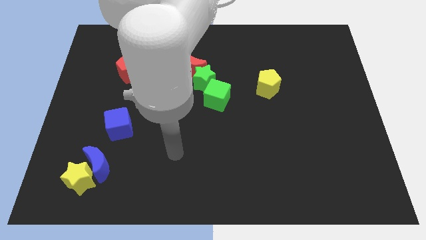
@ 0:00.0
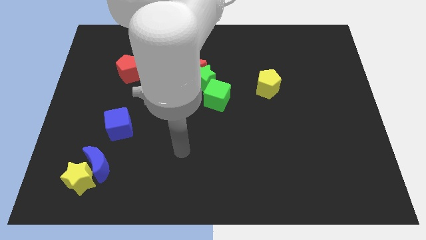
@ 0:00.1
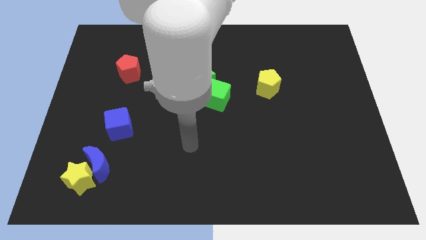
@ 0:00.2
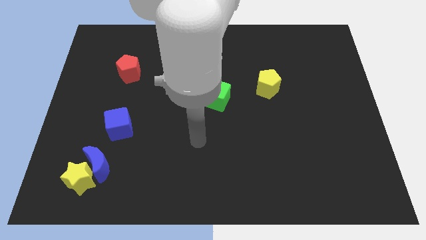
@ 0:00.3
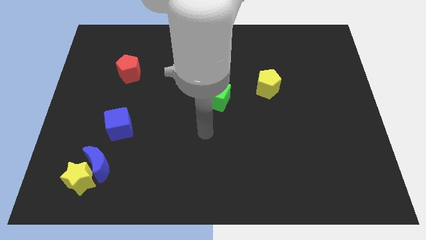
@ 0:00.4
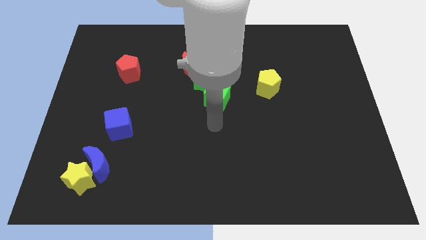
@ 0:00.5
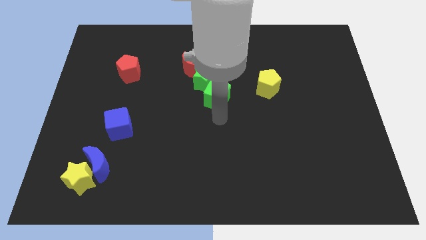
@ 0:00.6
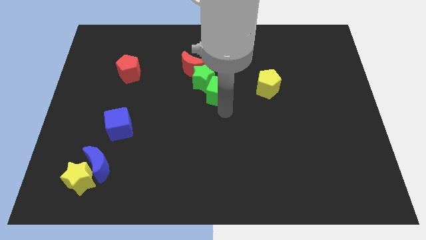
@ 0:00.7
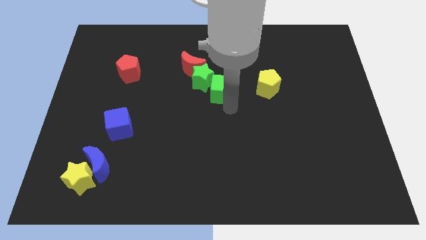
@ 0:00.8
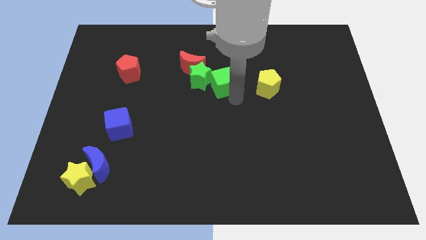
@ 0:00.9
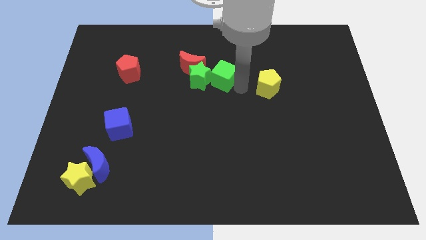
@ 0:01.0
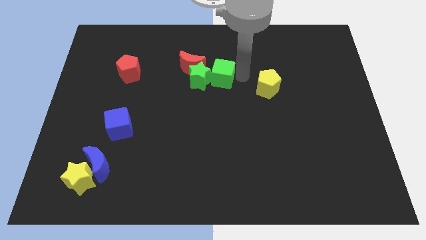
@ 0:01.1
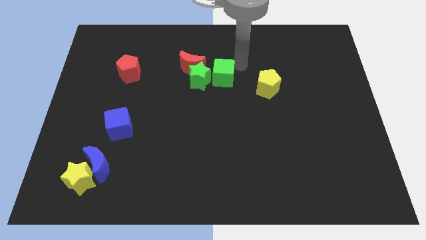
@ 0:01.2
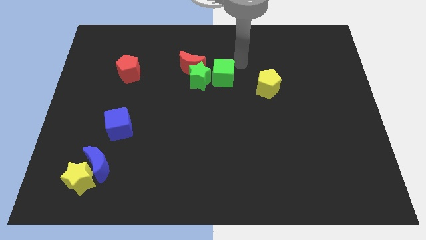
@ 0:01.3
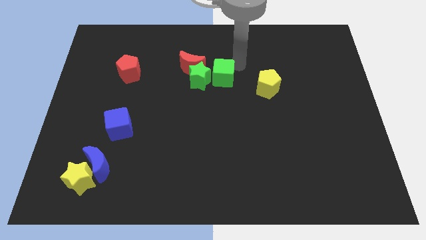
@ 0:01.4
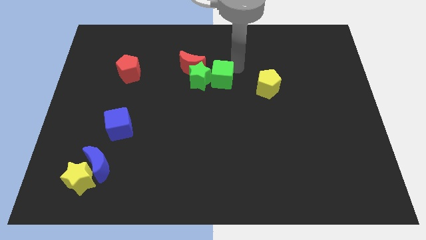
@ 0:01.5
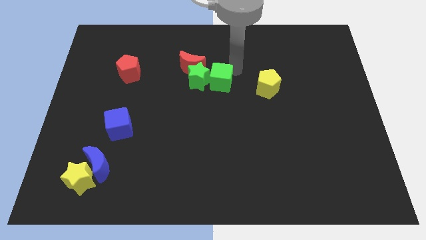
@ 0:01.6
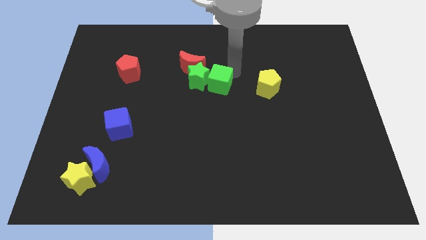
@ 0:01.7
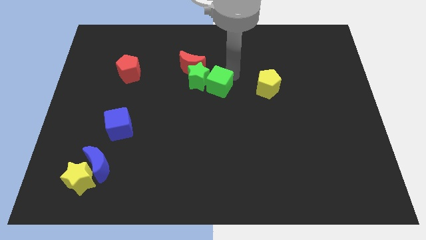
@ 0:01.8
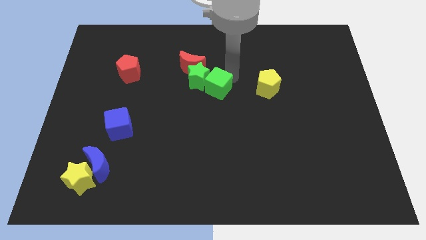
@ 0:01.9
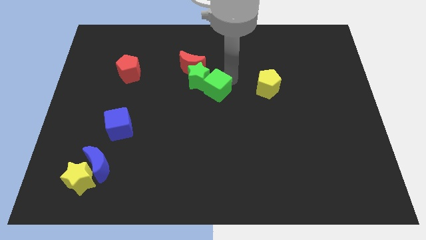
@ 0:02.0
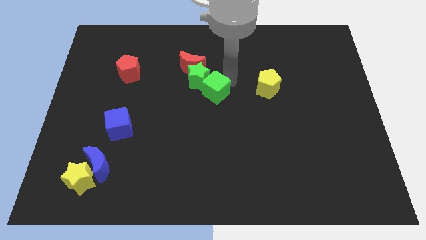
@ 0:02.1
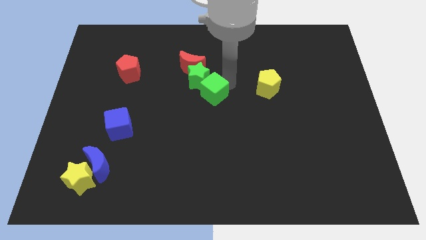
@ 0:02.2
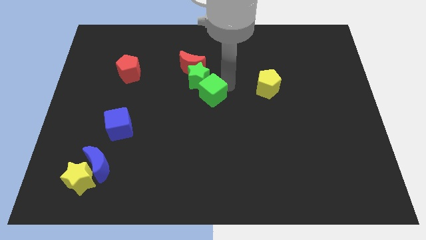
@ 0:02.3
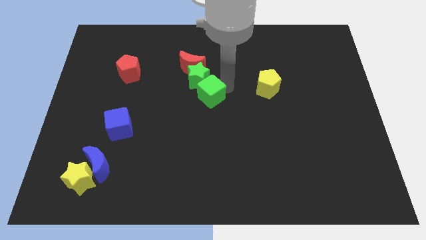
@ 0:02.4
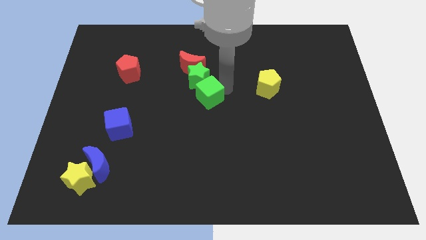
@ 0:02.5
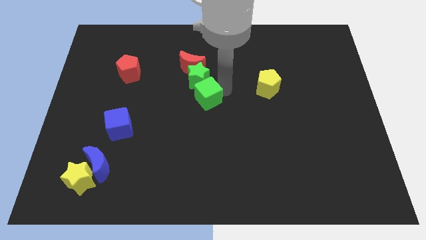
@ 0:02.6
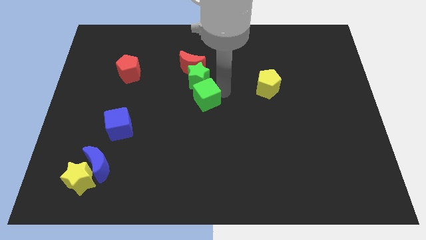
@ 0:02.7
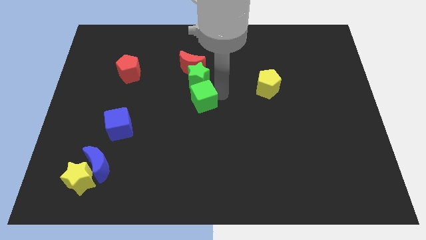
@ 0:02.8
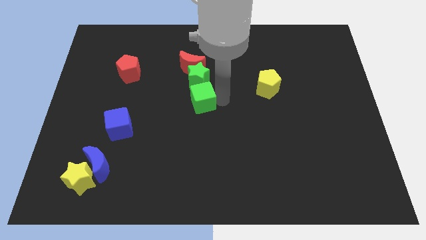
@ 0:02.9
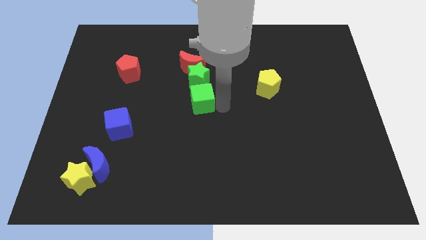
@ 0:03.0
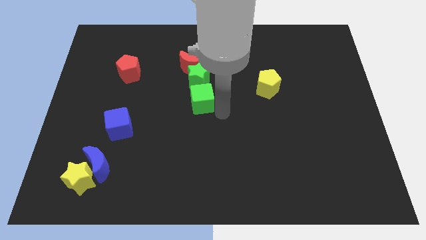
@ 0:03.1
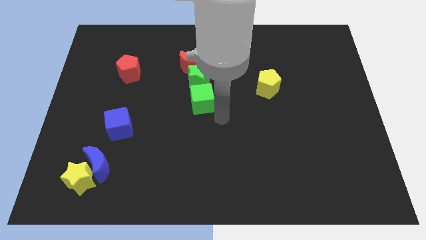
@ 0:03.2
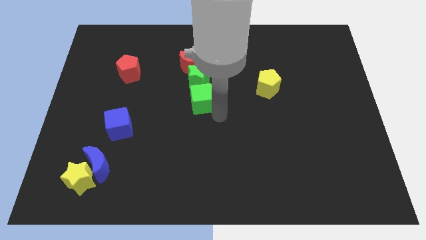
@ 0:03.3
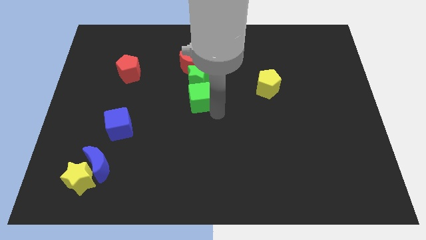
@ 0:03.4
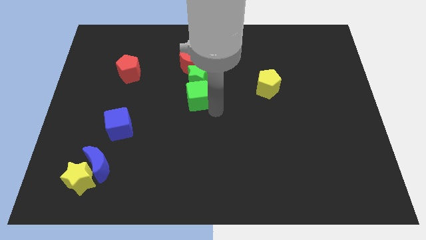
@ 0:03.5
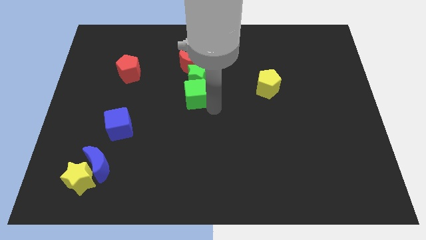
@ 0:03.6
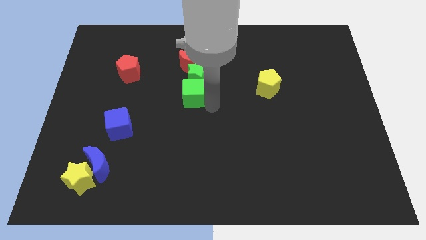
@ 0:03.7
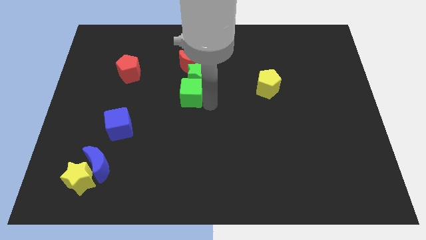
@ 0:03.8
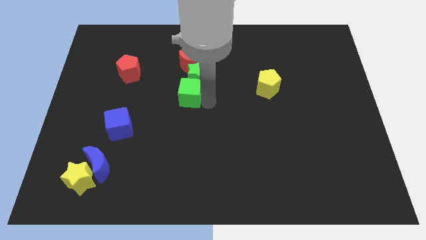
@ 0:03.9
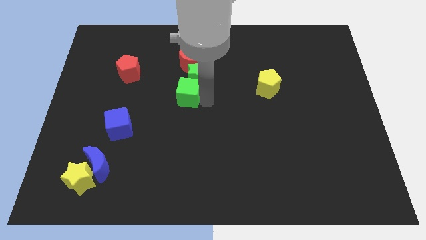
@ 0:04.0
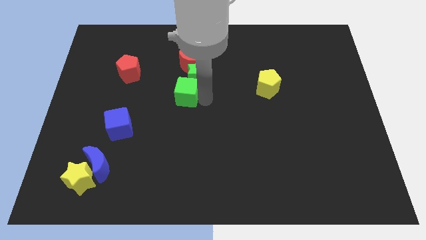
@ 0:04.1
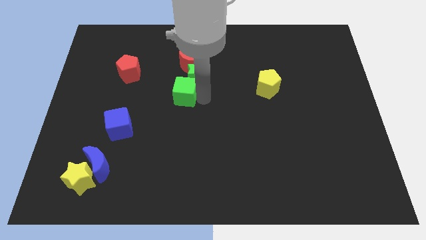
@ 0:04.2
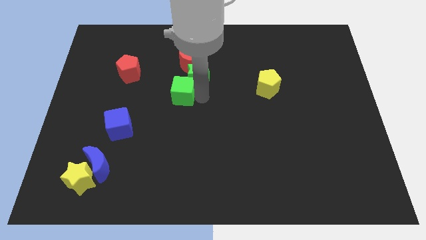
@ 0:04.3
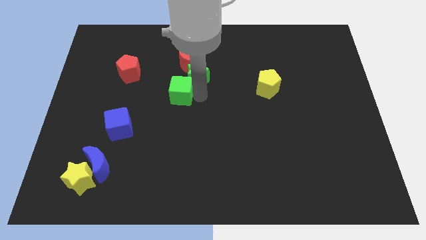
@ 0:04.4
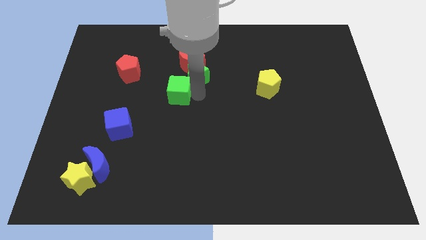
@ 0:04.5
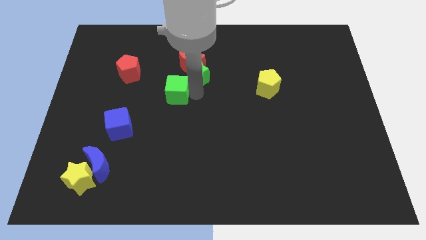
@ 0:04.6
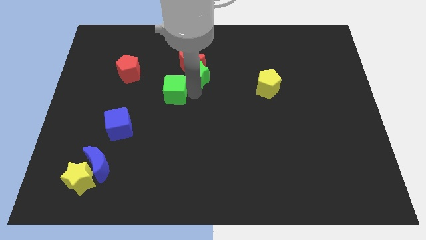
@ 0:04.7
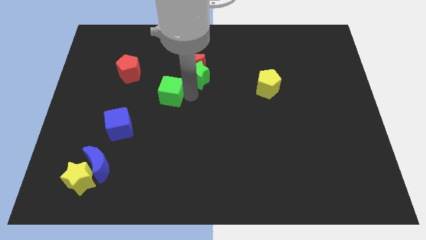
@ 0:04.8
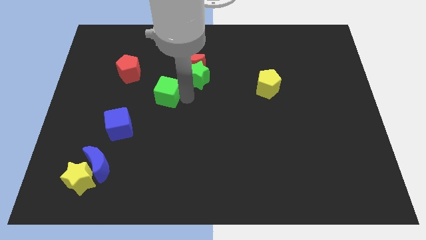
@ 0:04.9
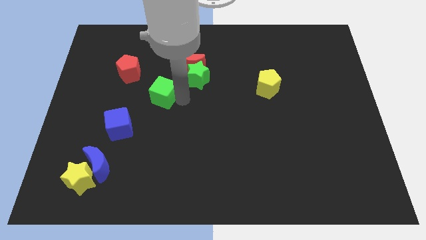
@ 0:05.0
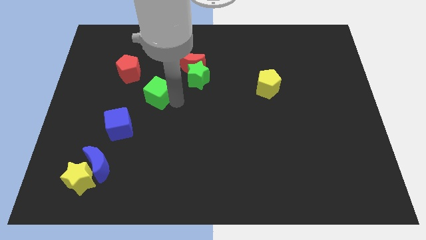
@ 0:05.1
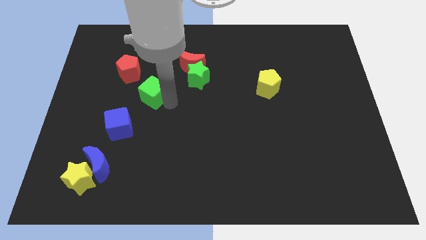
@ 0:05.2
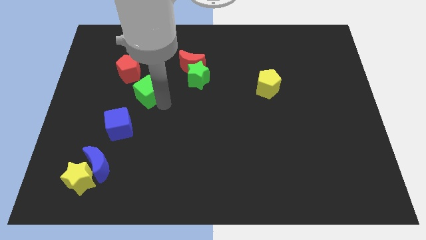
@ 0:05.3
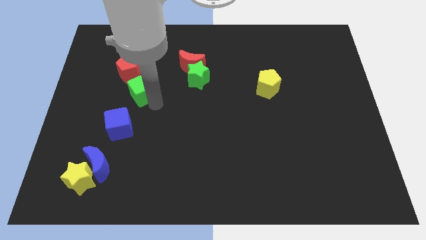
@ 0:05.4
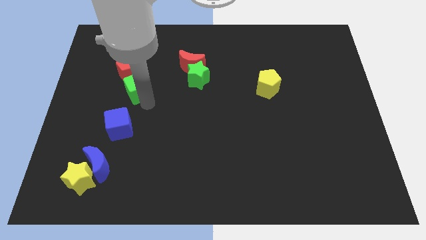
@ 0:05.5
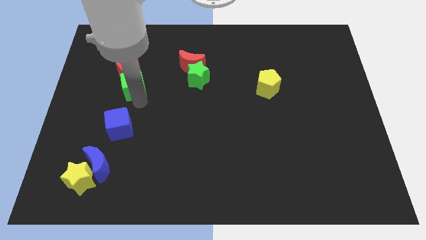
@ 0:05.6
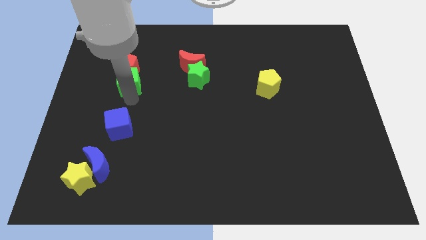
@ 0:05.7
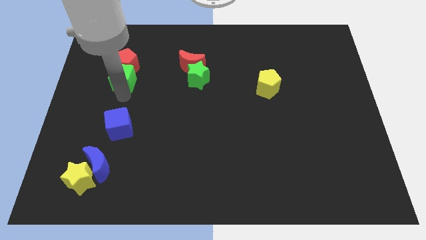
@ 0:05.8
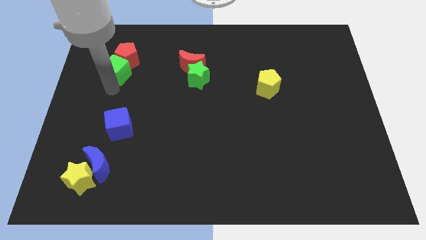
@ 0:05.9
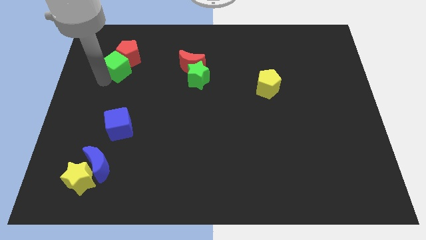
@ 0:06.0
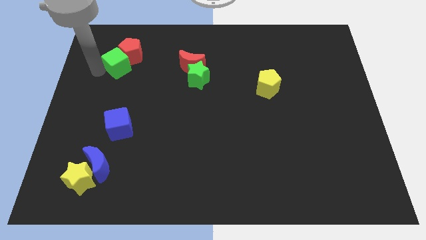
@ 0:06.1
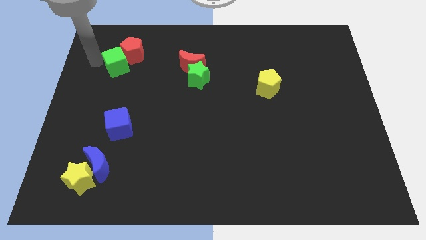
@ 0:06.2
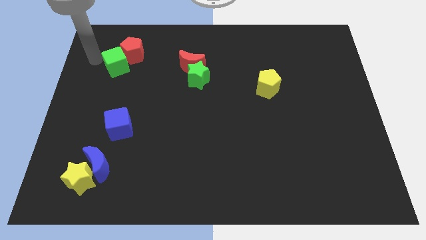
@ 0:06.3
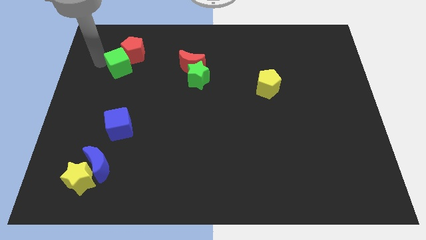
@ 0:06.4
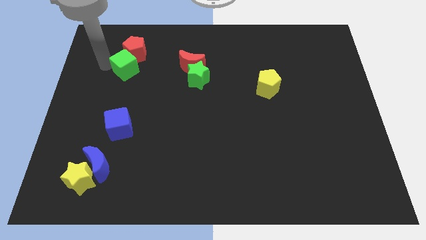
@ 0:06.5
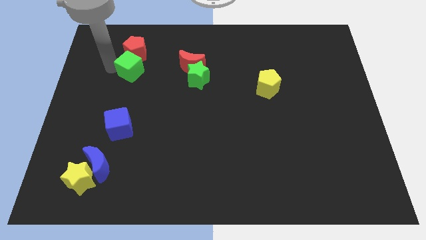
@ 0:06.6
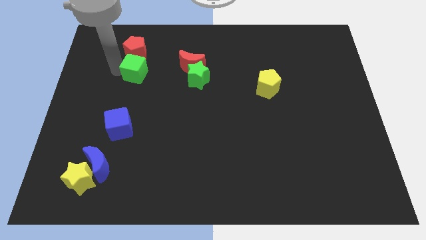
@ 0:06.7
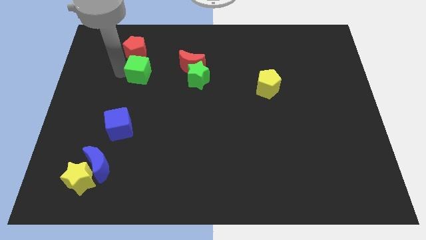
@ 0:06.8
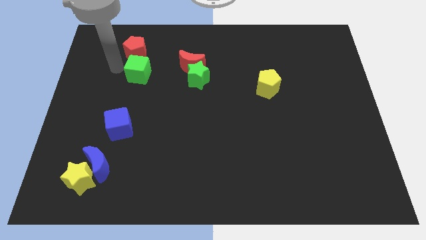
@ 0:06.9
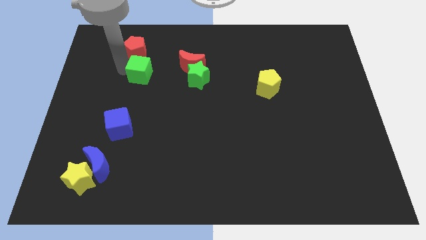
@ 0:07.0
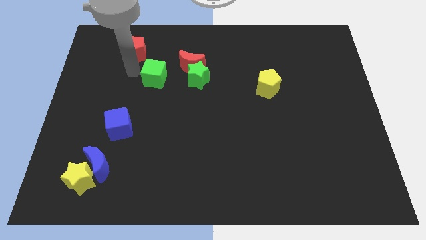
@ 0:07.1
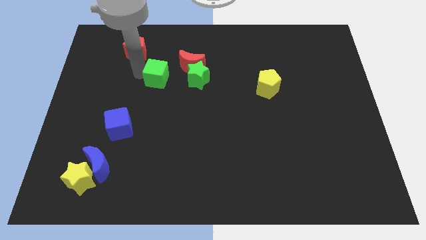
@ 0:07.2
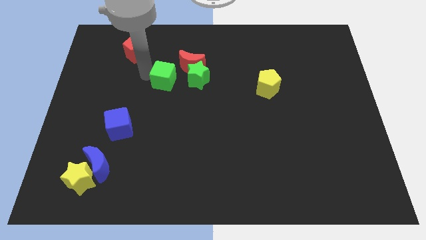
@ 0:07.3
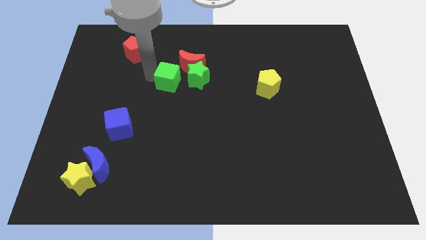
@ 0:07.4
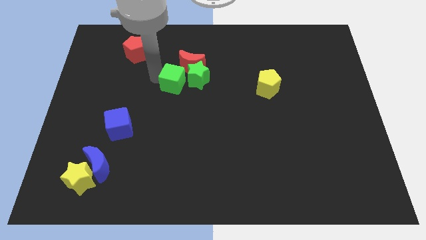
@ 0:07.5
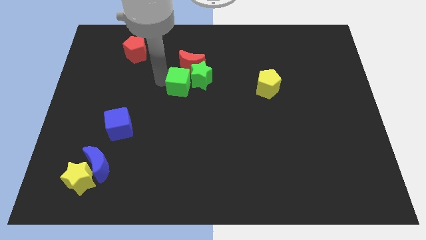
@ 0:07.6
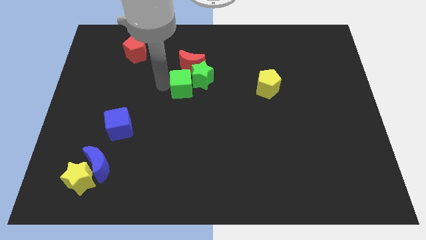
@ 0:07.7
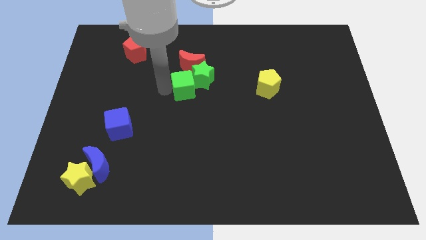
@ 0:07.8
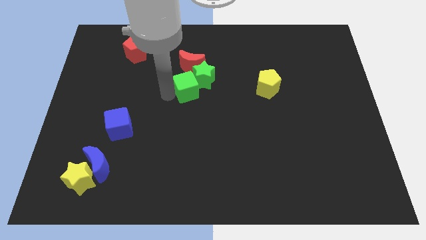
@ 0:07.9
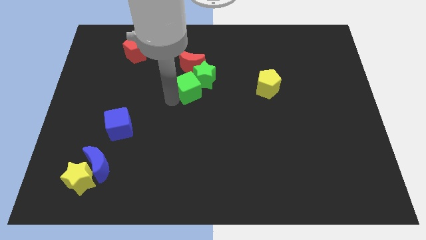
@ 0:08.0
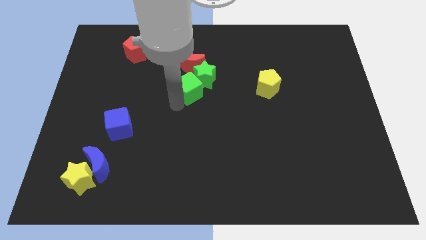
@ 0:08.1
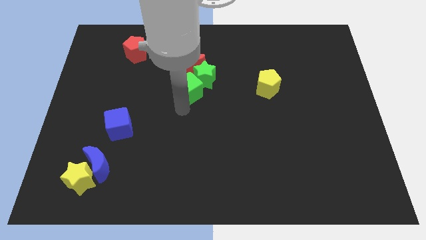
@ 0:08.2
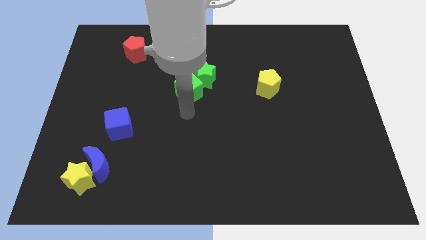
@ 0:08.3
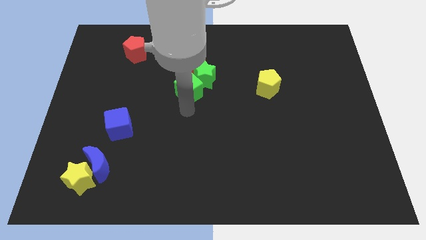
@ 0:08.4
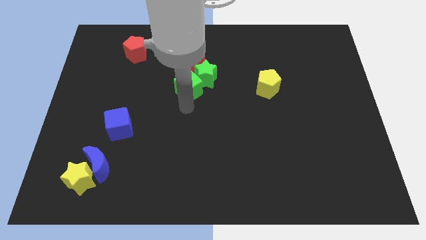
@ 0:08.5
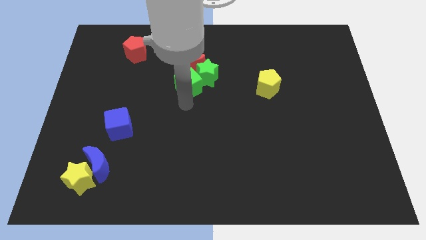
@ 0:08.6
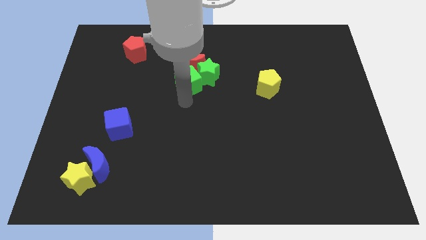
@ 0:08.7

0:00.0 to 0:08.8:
slide the green cube to the red moon
